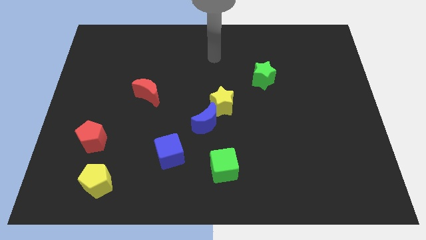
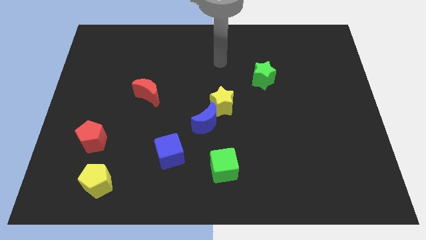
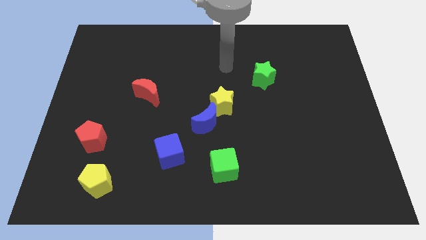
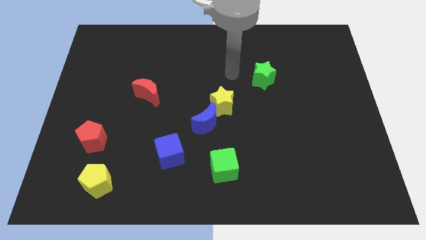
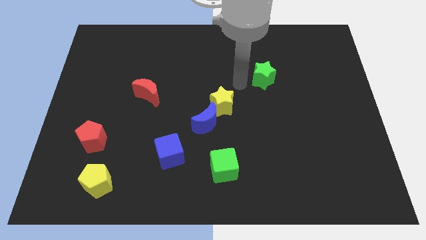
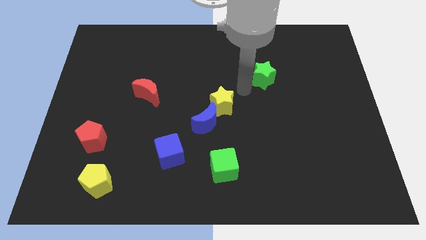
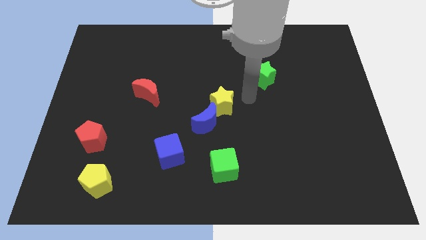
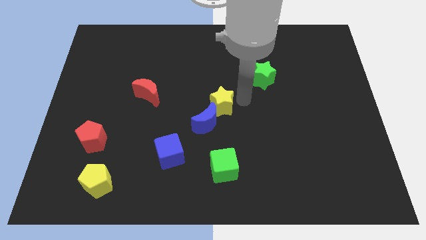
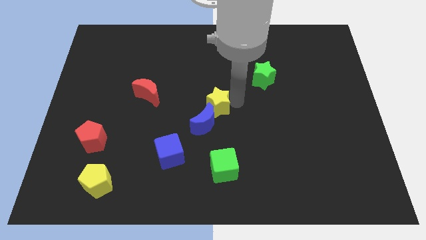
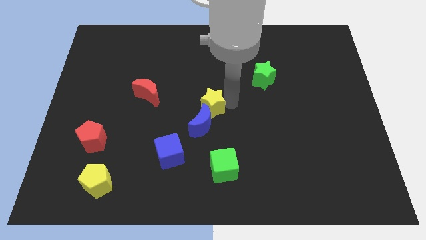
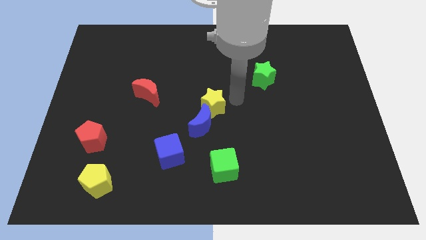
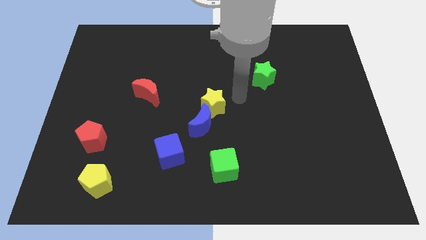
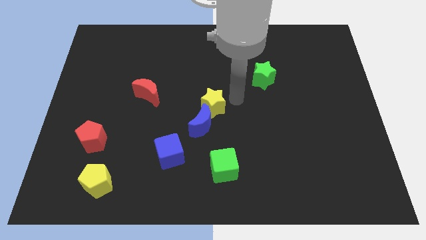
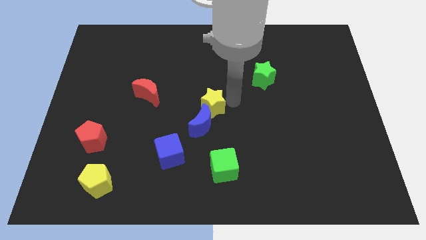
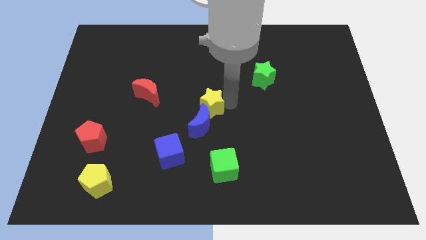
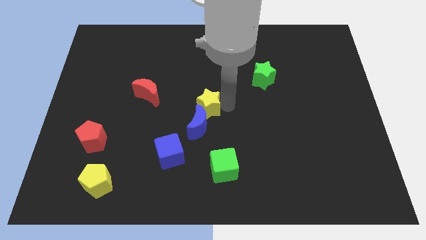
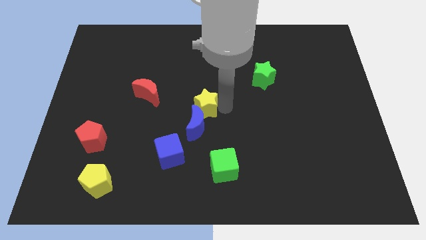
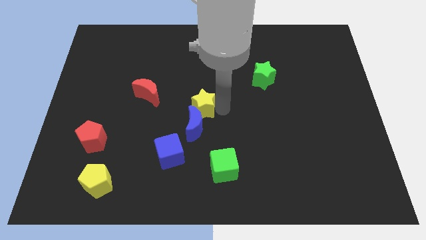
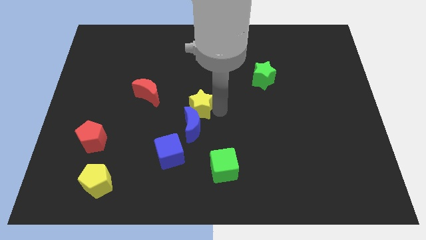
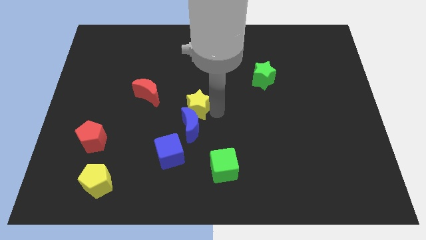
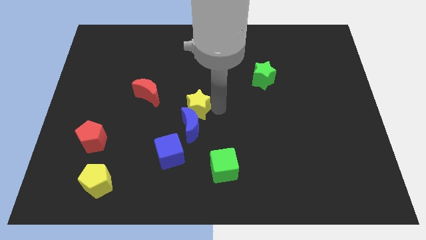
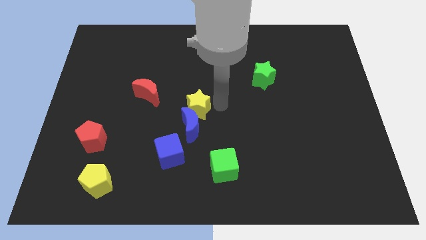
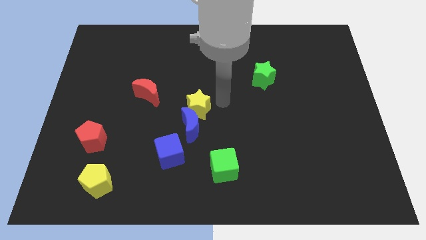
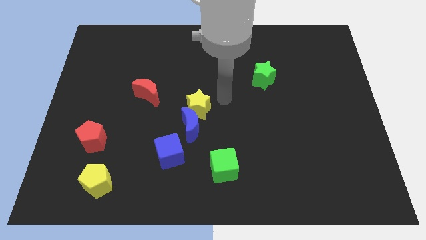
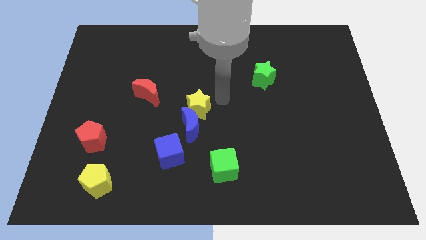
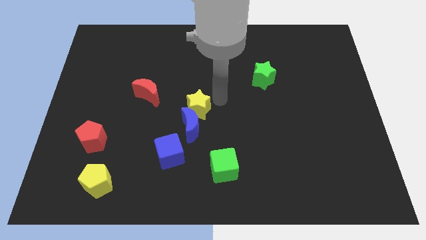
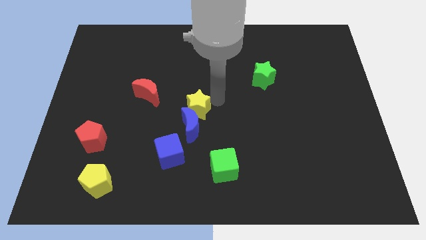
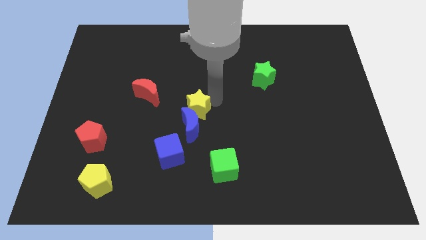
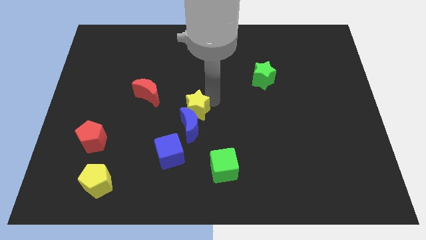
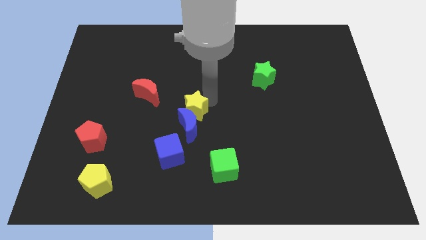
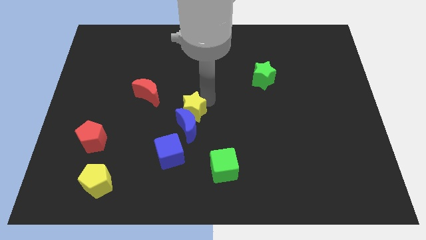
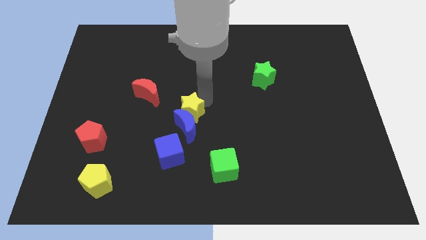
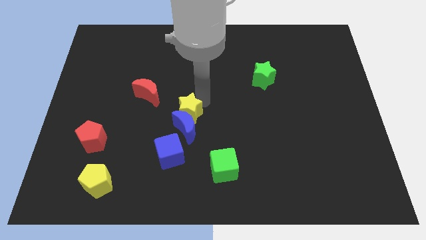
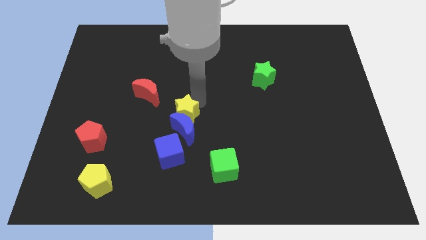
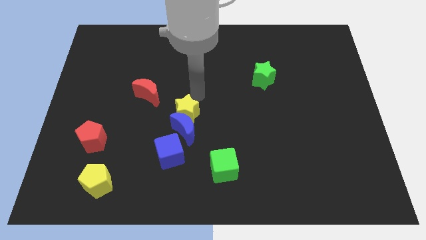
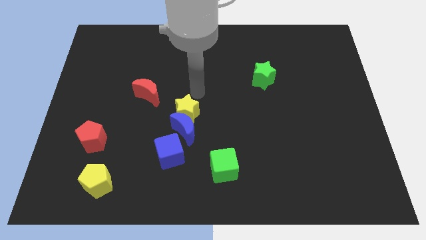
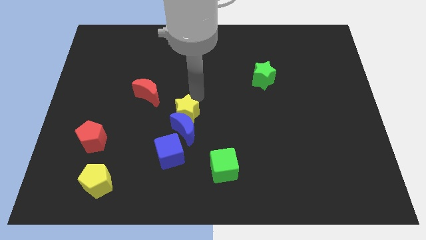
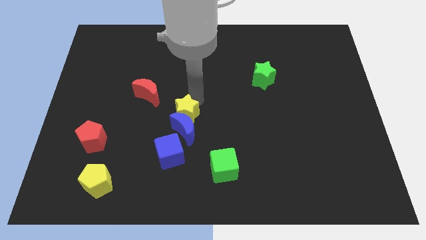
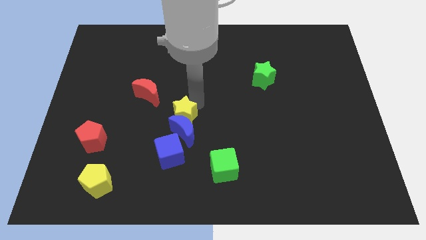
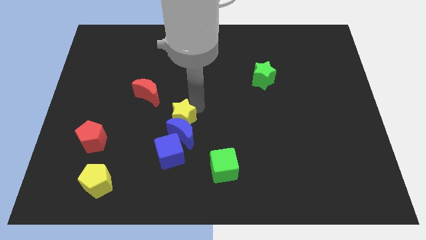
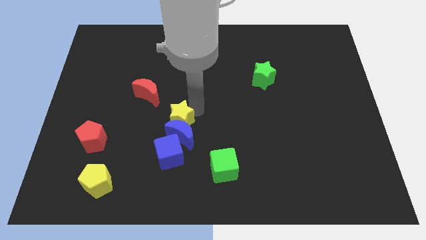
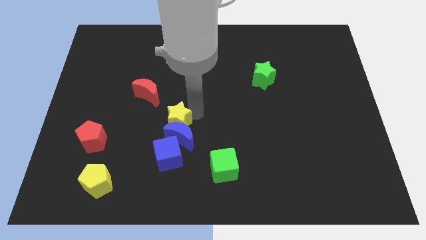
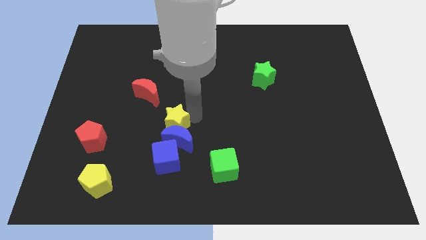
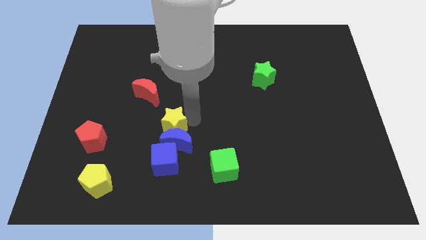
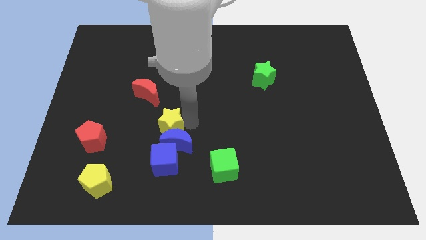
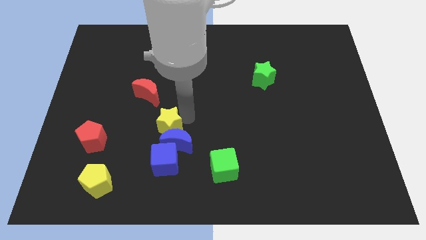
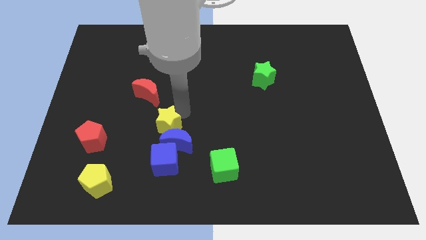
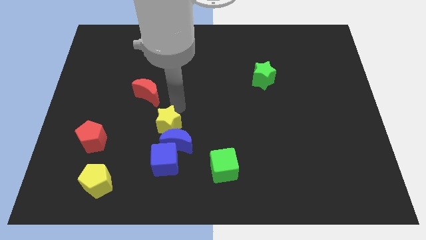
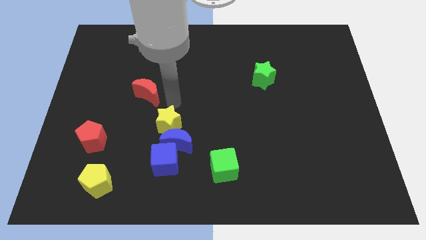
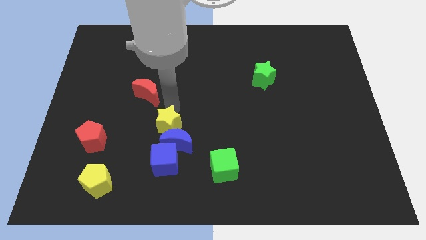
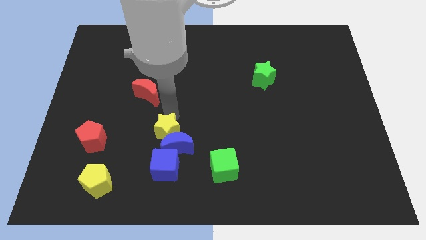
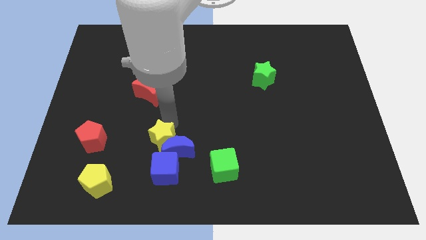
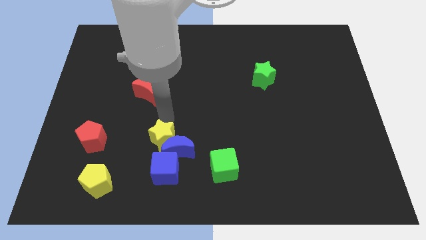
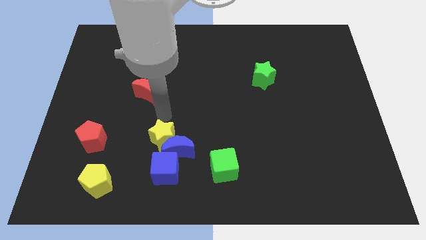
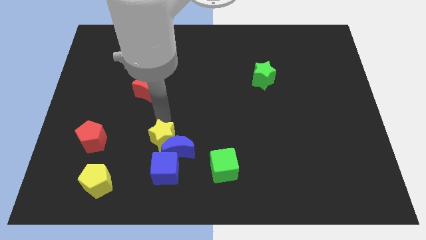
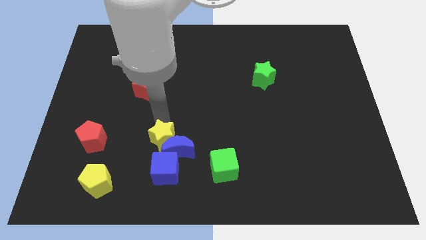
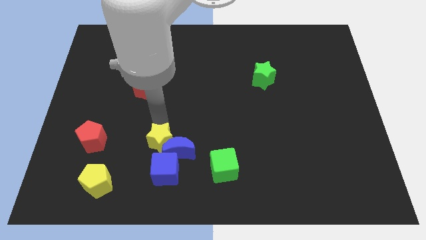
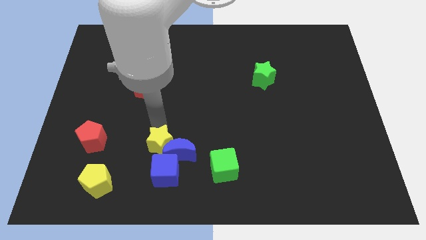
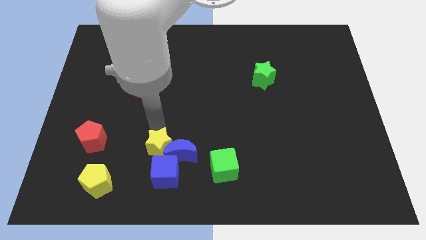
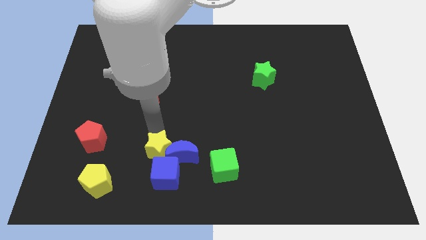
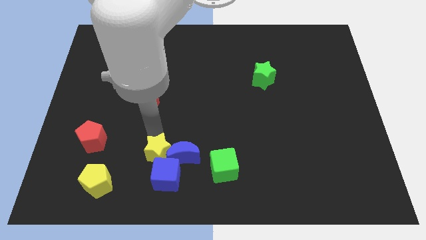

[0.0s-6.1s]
put the yellow star towards the blue cube
